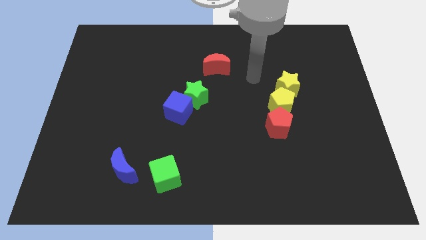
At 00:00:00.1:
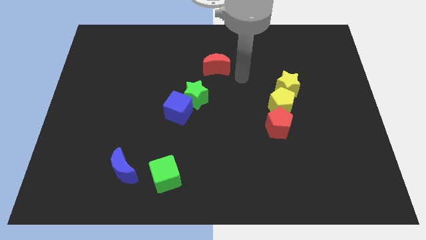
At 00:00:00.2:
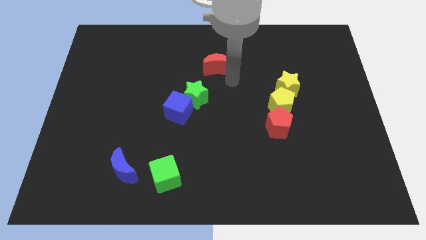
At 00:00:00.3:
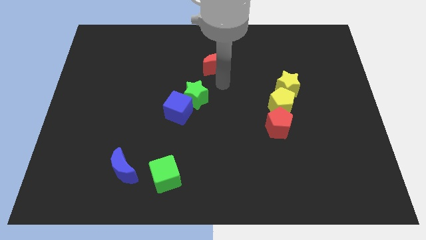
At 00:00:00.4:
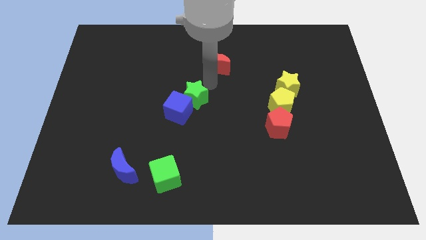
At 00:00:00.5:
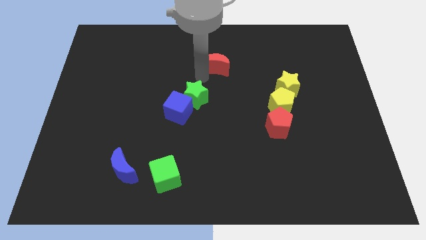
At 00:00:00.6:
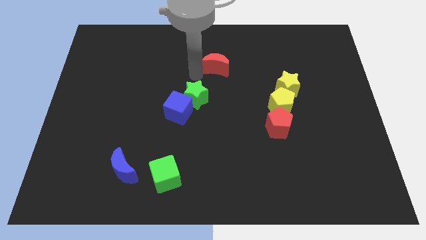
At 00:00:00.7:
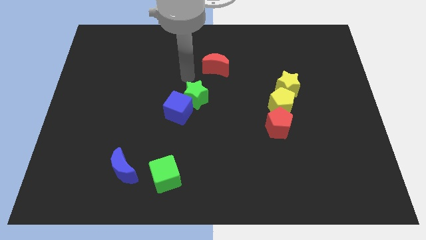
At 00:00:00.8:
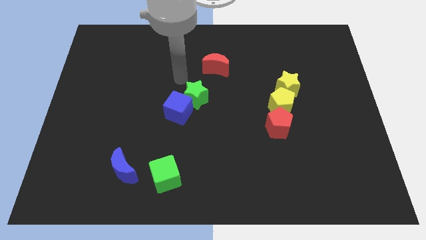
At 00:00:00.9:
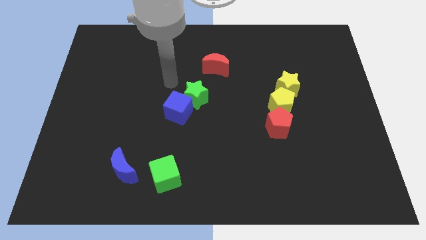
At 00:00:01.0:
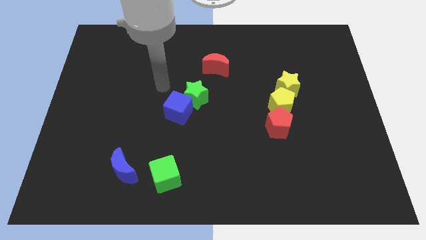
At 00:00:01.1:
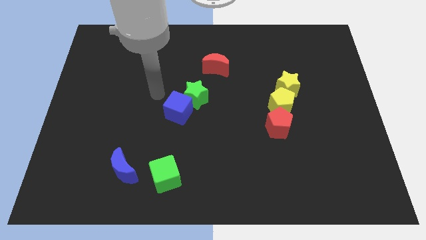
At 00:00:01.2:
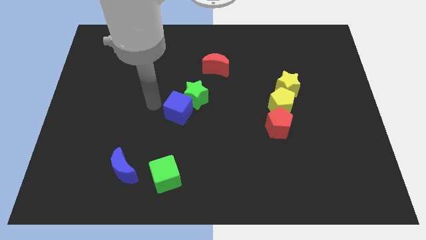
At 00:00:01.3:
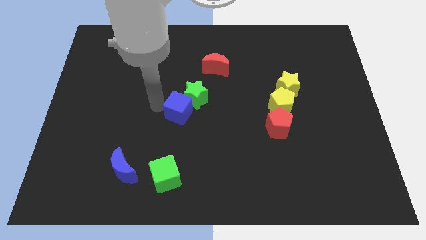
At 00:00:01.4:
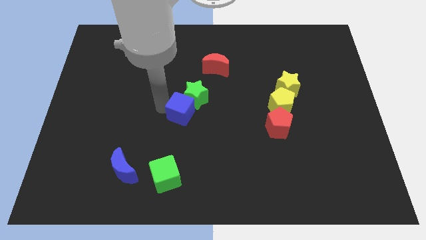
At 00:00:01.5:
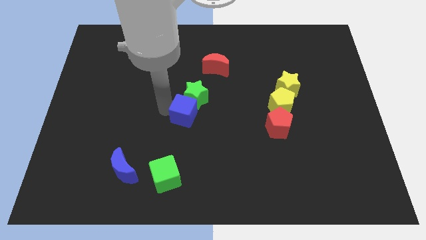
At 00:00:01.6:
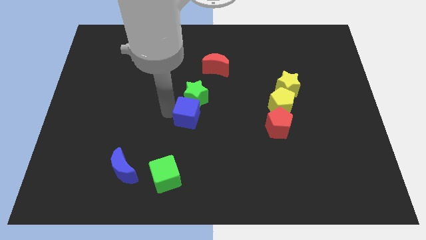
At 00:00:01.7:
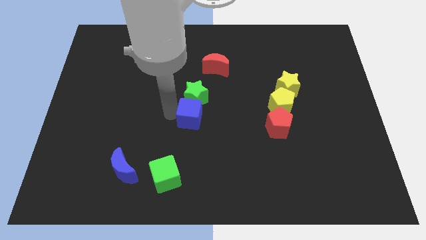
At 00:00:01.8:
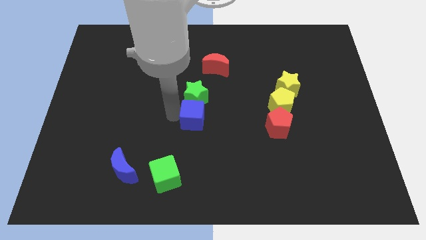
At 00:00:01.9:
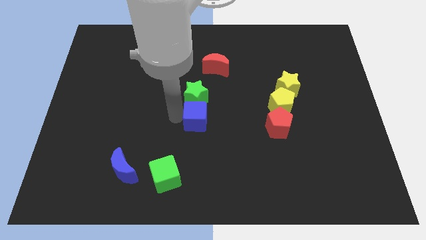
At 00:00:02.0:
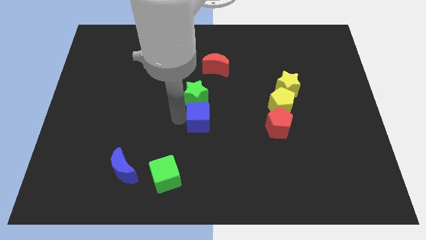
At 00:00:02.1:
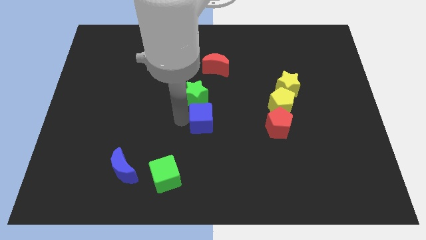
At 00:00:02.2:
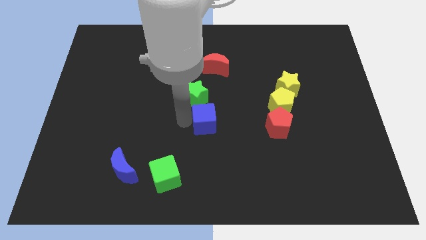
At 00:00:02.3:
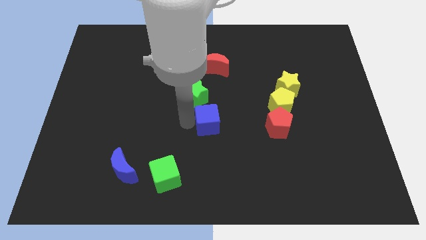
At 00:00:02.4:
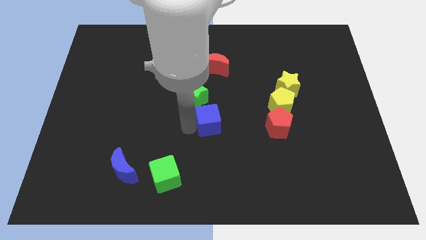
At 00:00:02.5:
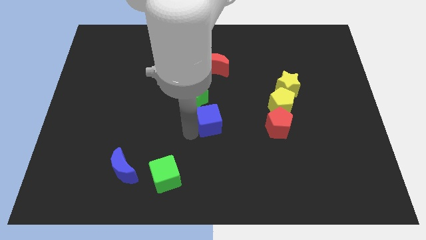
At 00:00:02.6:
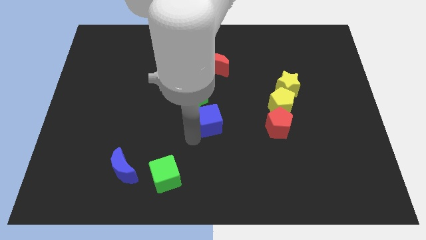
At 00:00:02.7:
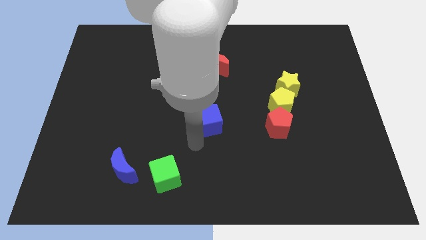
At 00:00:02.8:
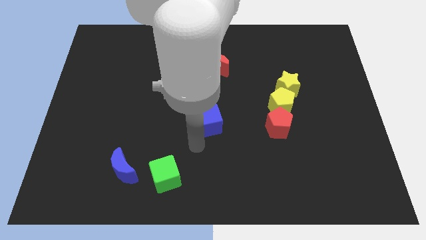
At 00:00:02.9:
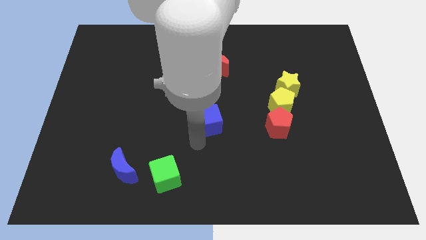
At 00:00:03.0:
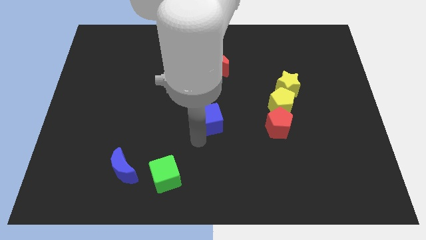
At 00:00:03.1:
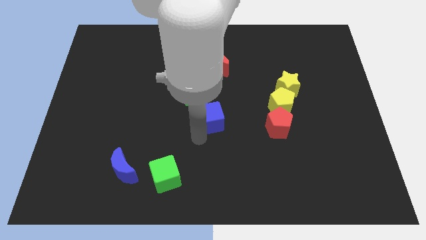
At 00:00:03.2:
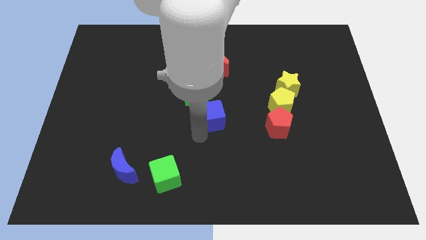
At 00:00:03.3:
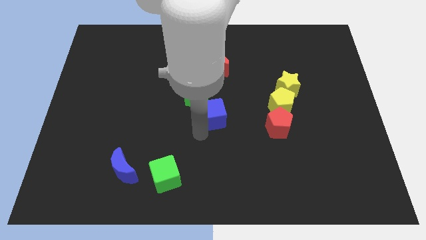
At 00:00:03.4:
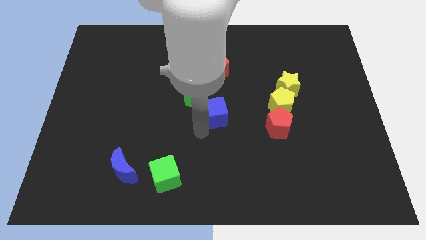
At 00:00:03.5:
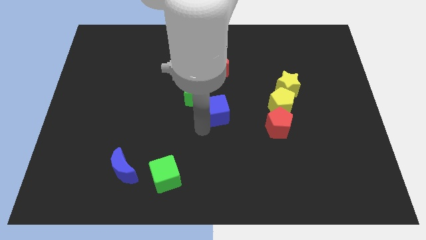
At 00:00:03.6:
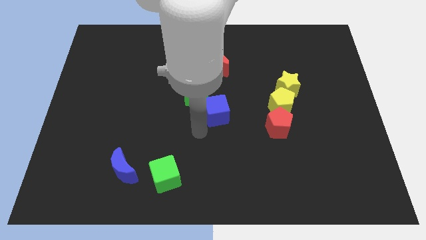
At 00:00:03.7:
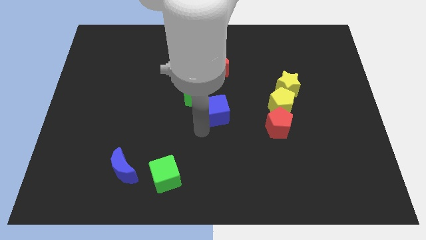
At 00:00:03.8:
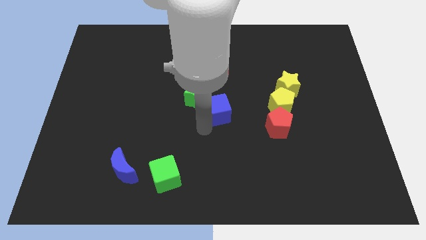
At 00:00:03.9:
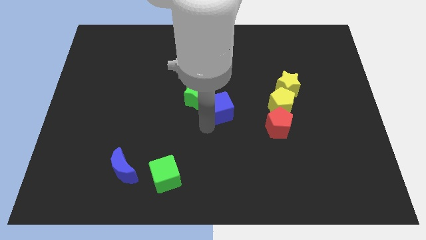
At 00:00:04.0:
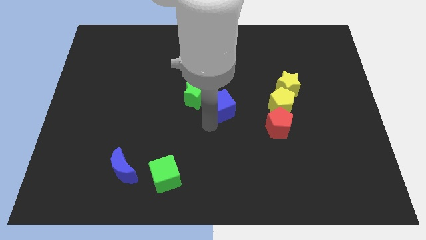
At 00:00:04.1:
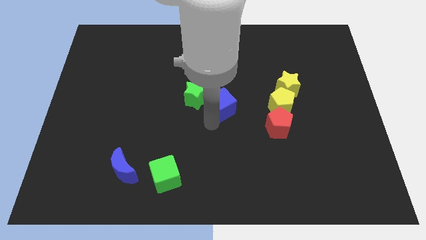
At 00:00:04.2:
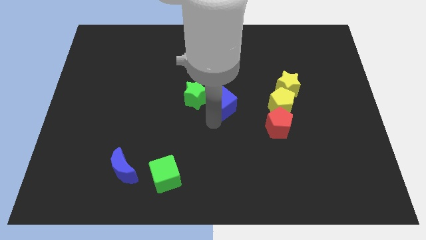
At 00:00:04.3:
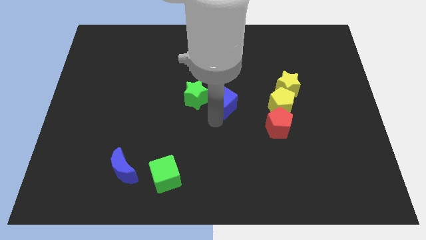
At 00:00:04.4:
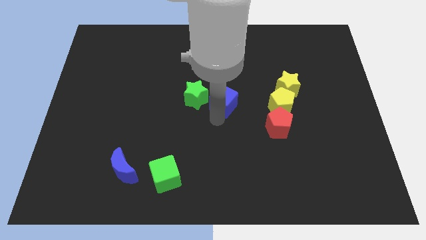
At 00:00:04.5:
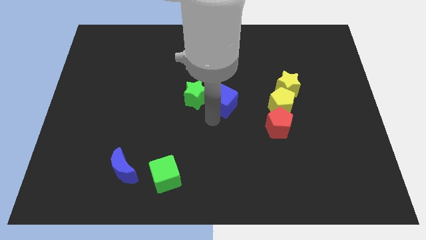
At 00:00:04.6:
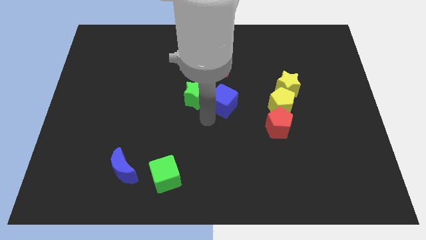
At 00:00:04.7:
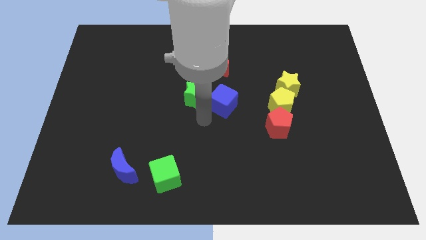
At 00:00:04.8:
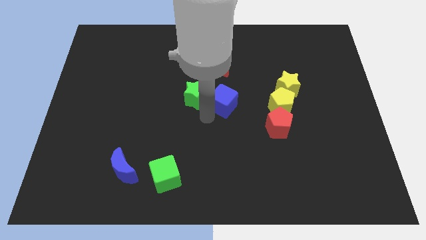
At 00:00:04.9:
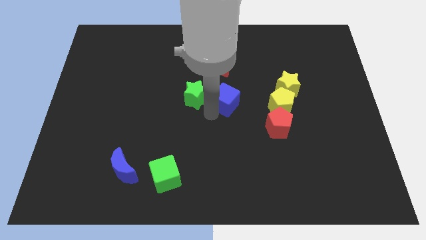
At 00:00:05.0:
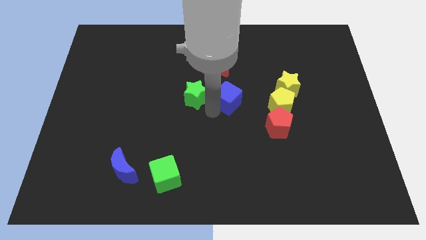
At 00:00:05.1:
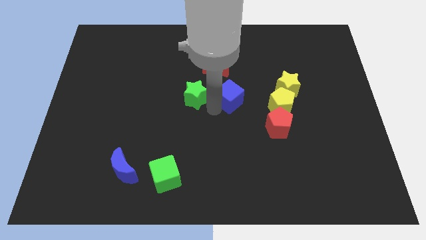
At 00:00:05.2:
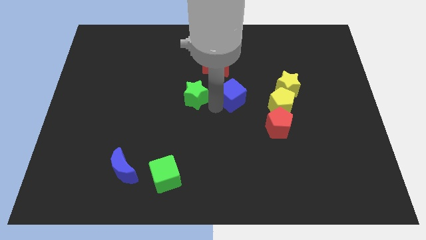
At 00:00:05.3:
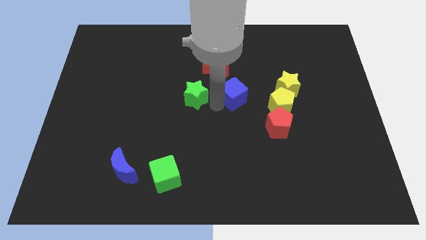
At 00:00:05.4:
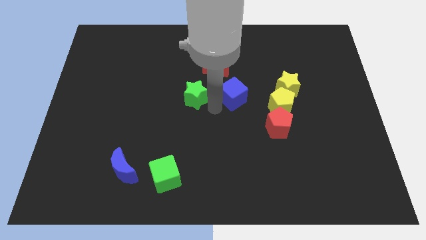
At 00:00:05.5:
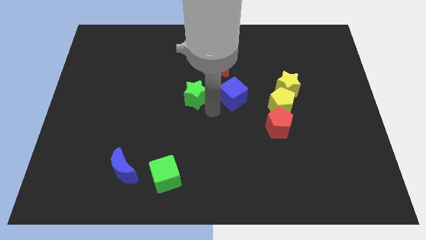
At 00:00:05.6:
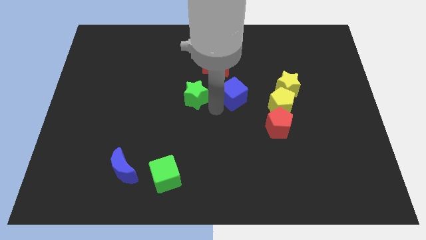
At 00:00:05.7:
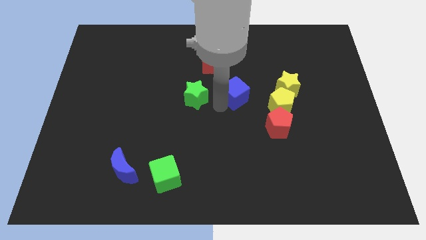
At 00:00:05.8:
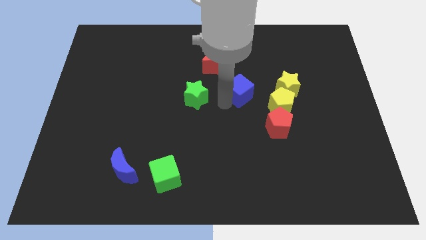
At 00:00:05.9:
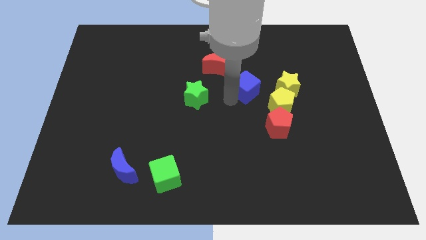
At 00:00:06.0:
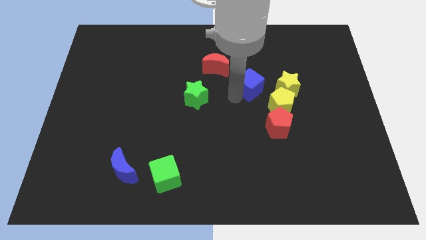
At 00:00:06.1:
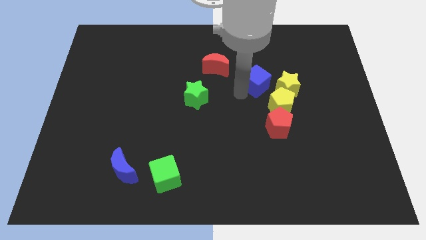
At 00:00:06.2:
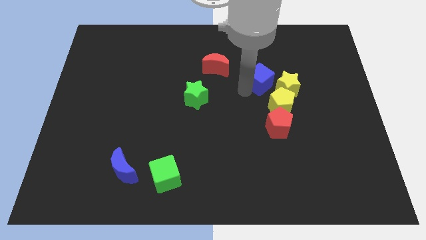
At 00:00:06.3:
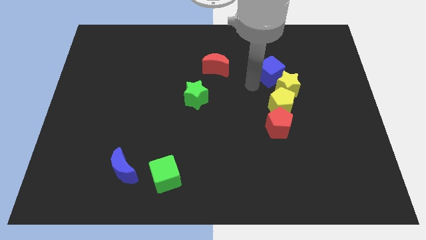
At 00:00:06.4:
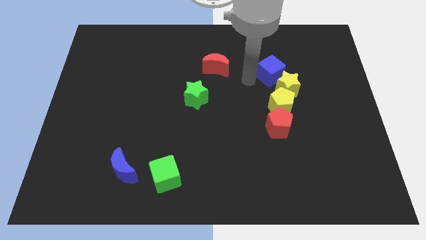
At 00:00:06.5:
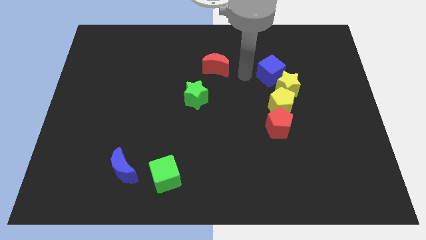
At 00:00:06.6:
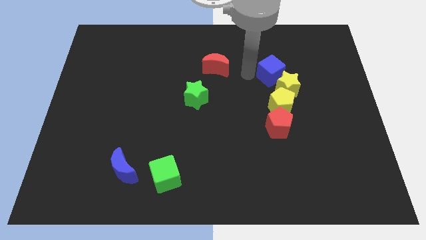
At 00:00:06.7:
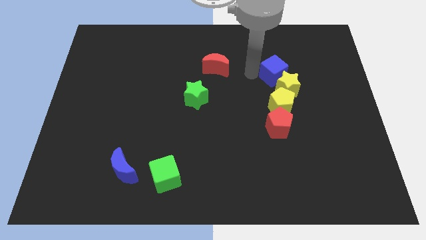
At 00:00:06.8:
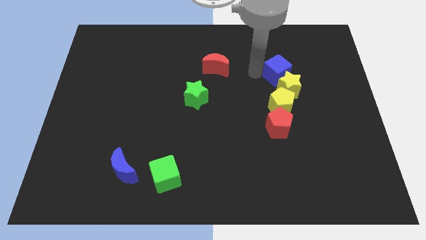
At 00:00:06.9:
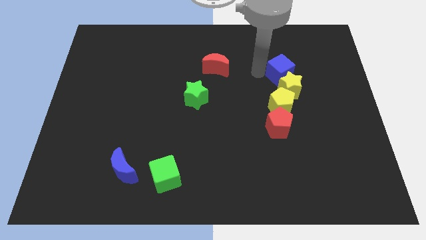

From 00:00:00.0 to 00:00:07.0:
put the blue cube diagonally up and to the right of the yellow star
